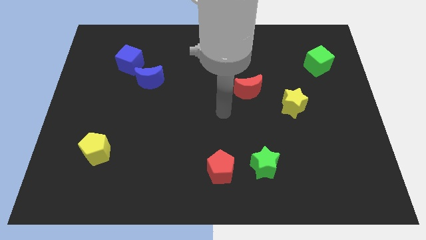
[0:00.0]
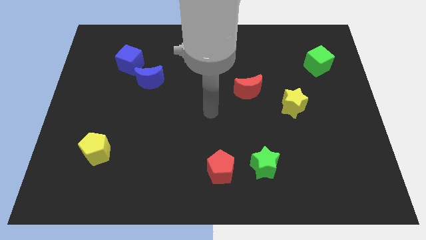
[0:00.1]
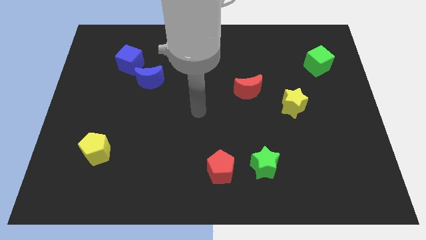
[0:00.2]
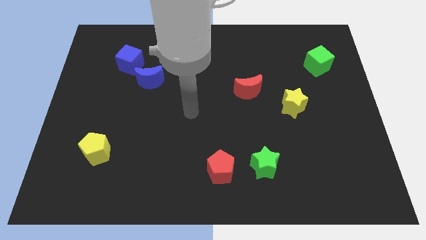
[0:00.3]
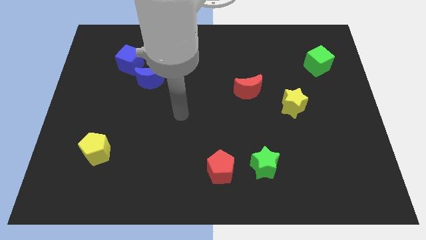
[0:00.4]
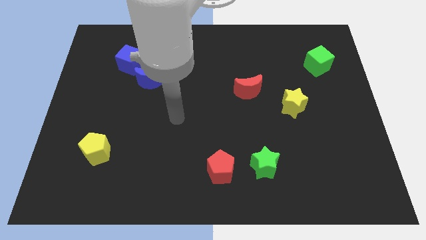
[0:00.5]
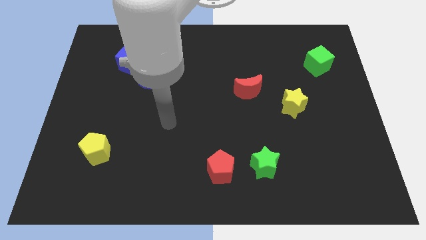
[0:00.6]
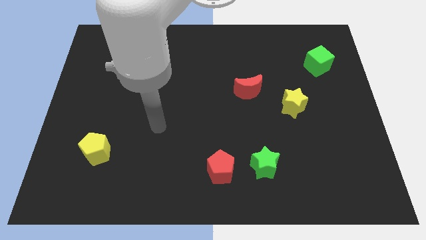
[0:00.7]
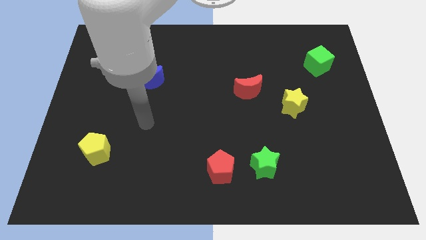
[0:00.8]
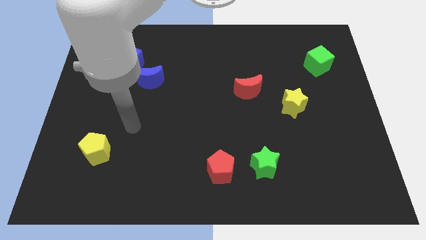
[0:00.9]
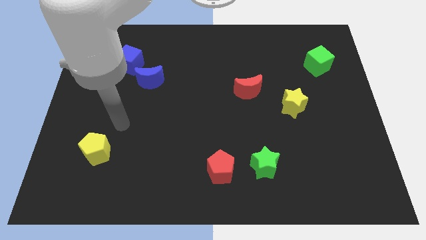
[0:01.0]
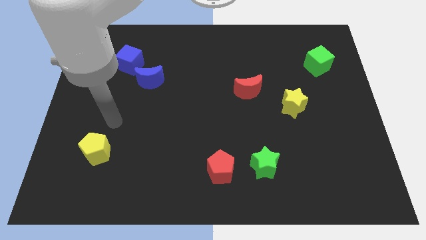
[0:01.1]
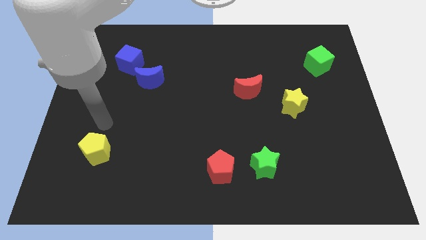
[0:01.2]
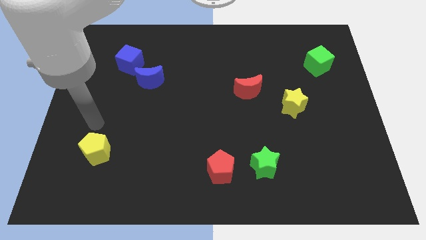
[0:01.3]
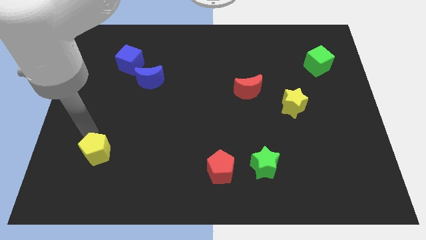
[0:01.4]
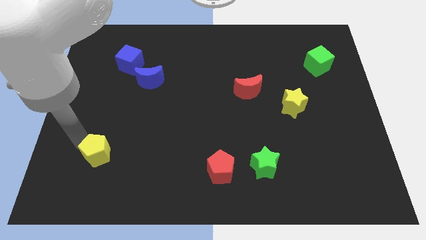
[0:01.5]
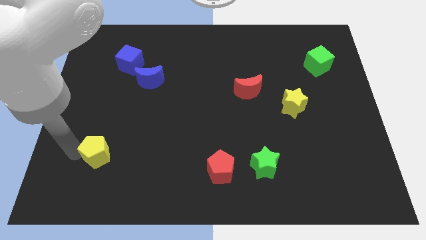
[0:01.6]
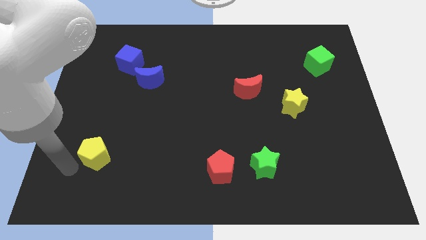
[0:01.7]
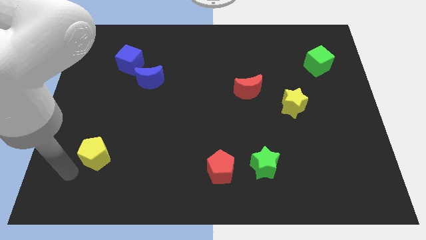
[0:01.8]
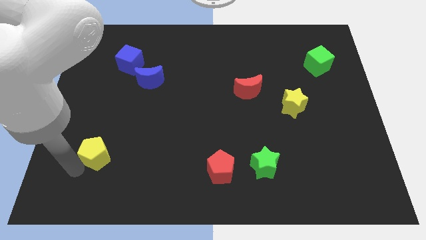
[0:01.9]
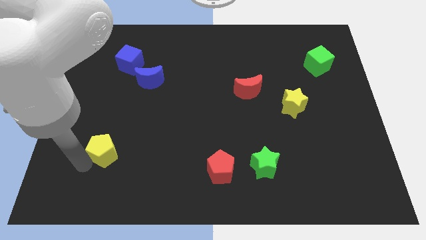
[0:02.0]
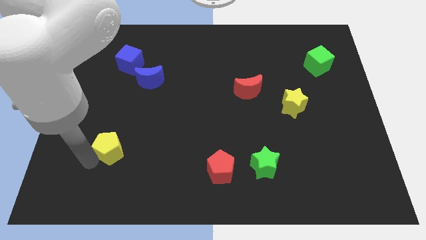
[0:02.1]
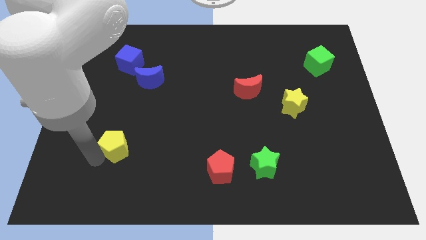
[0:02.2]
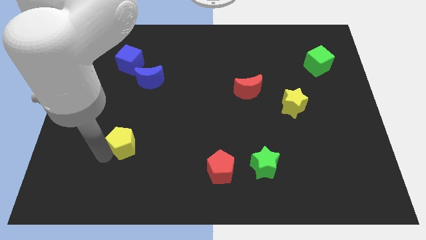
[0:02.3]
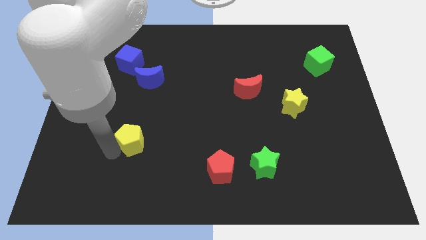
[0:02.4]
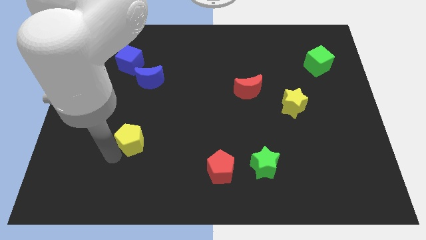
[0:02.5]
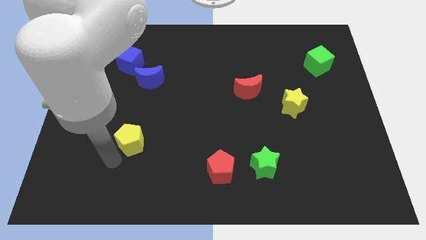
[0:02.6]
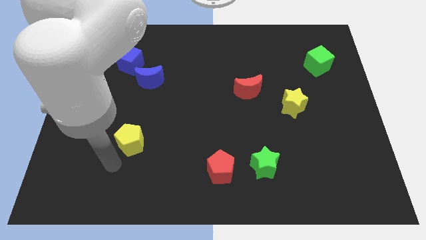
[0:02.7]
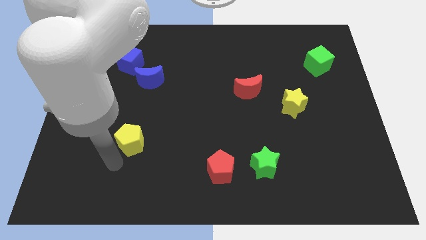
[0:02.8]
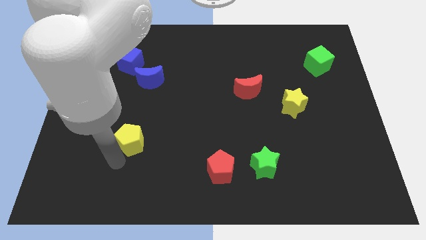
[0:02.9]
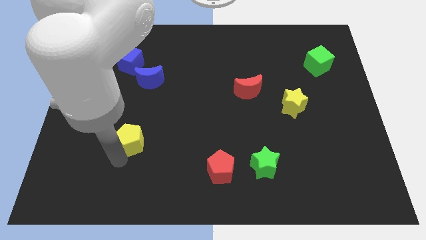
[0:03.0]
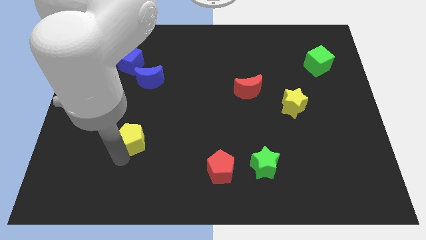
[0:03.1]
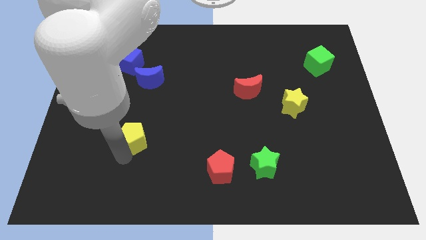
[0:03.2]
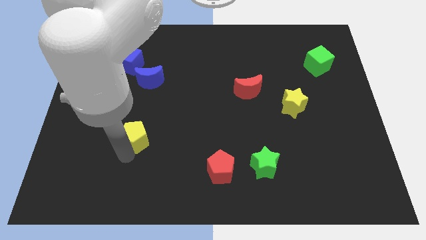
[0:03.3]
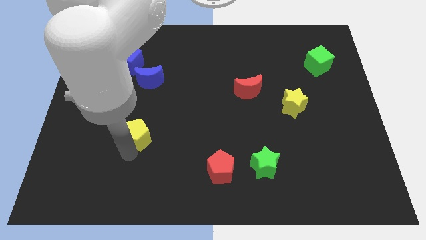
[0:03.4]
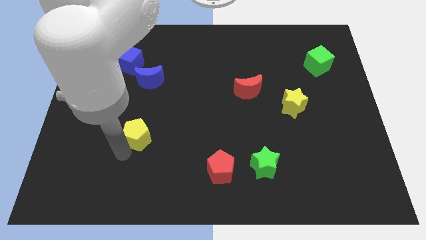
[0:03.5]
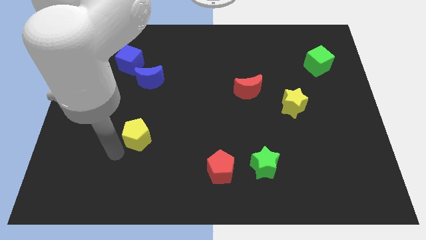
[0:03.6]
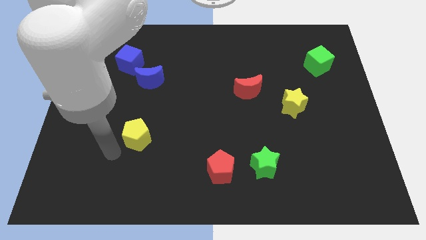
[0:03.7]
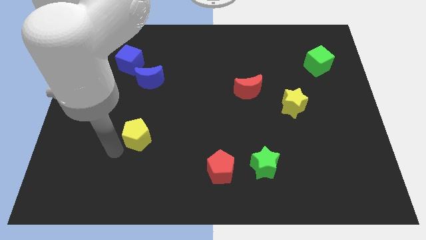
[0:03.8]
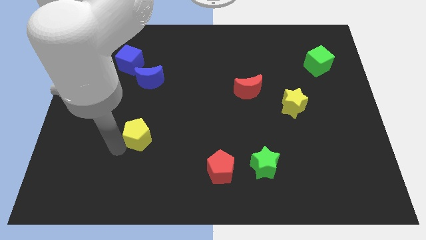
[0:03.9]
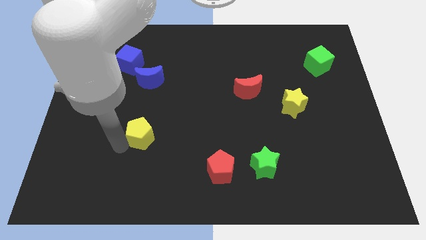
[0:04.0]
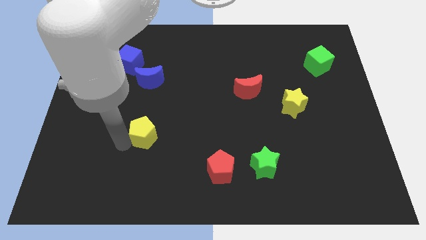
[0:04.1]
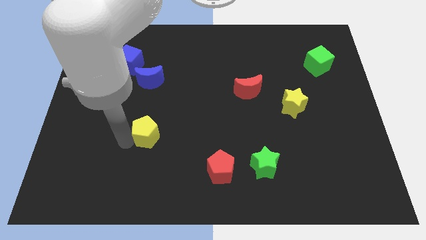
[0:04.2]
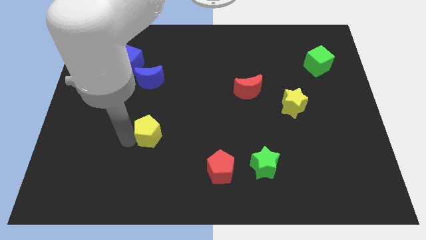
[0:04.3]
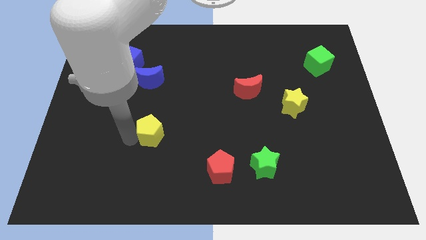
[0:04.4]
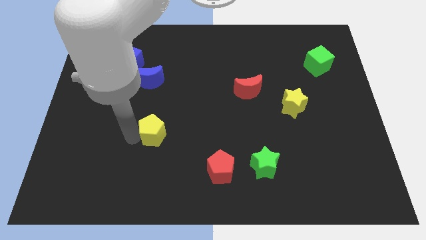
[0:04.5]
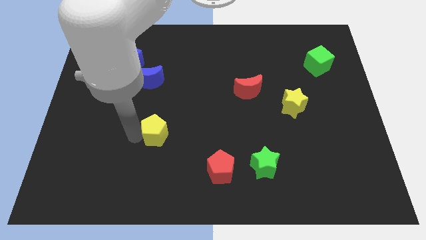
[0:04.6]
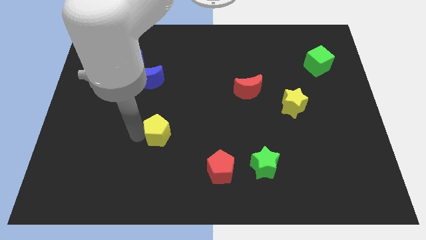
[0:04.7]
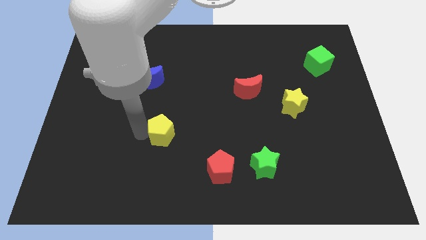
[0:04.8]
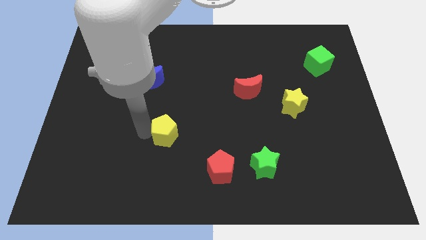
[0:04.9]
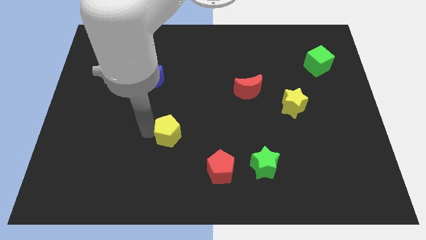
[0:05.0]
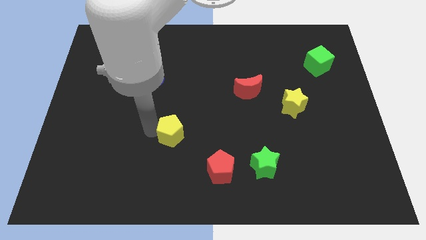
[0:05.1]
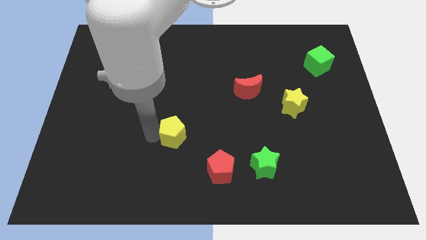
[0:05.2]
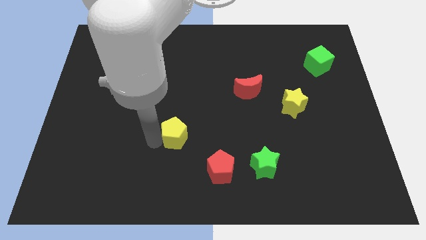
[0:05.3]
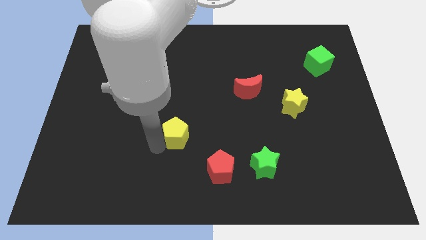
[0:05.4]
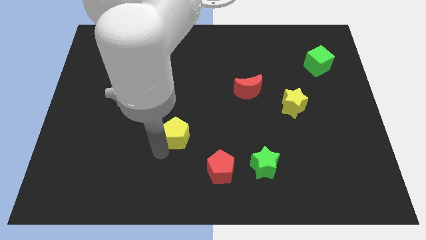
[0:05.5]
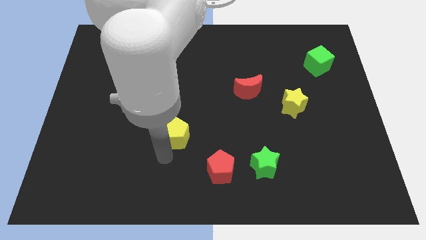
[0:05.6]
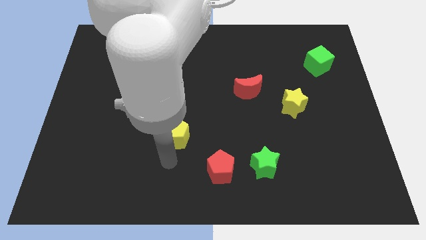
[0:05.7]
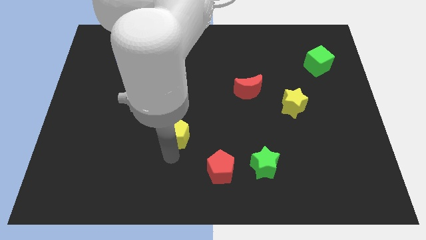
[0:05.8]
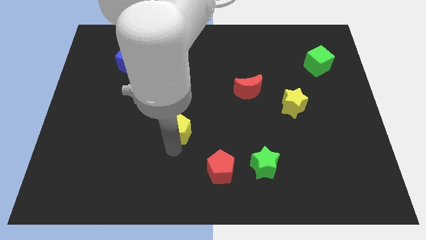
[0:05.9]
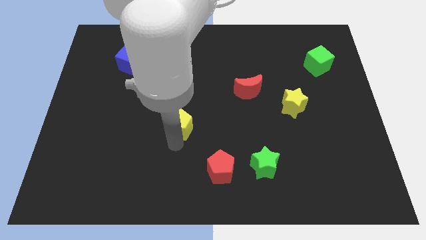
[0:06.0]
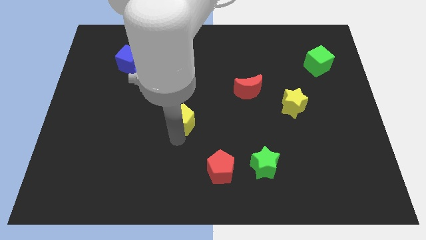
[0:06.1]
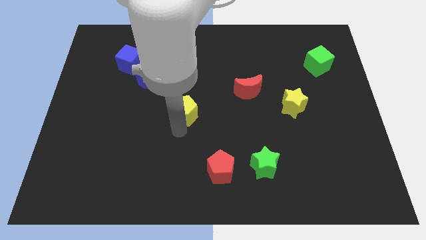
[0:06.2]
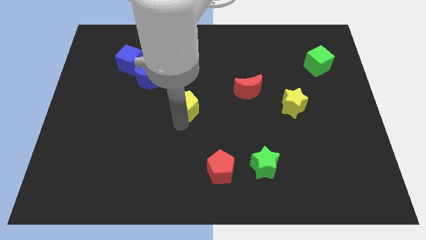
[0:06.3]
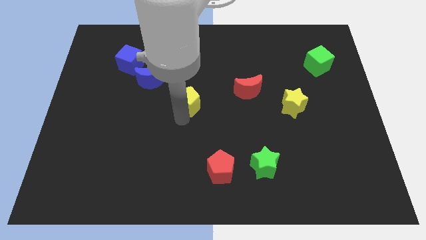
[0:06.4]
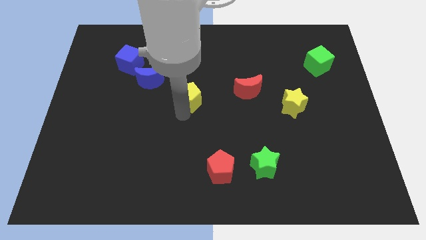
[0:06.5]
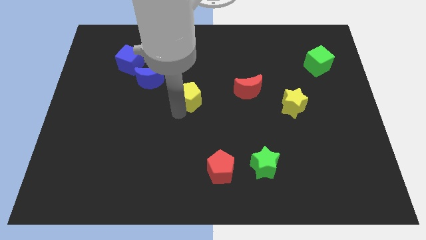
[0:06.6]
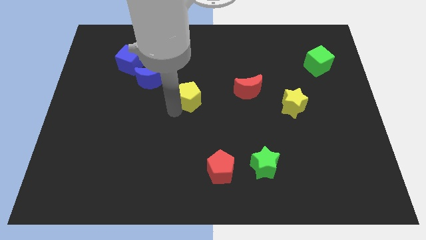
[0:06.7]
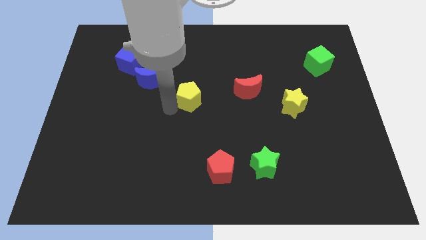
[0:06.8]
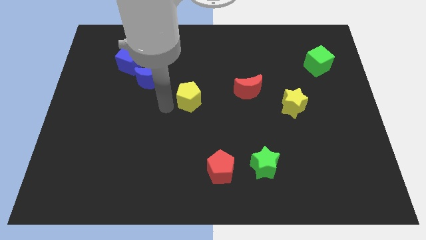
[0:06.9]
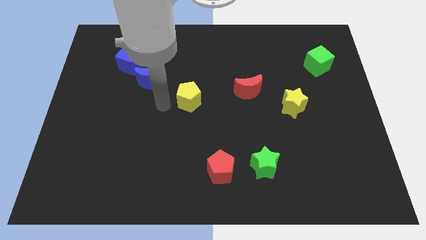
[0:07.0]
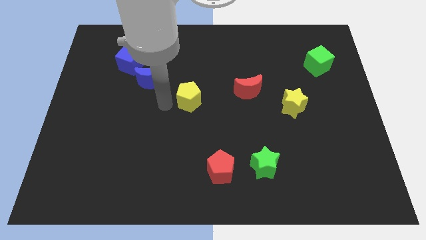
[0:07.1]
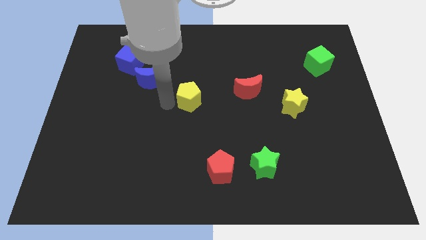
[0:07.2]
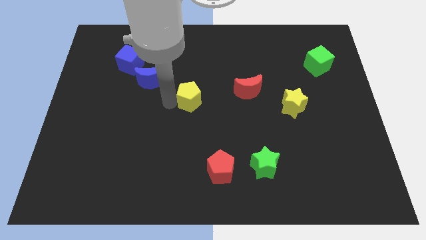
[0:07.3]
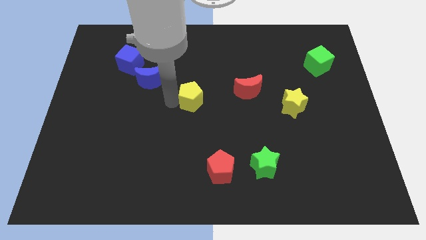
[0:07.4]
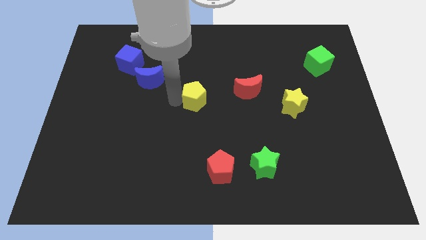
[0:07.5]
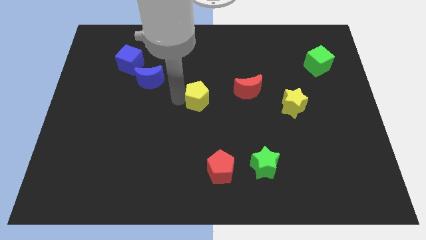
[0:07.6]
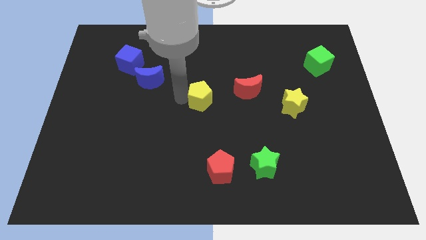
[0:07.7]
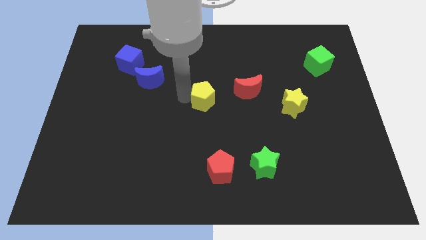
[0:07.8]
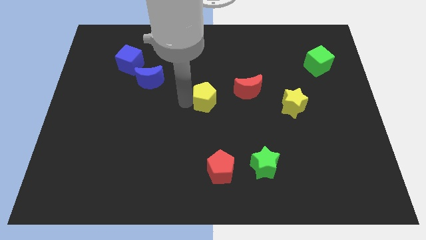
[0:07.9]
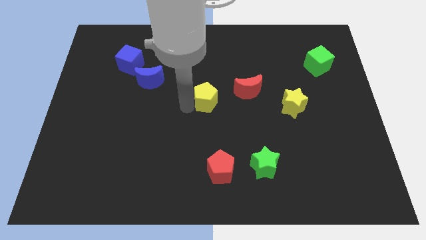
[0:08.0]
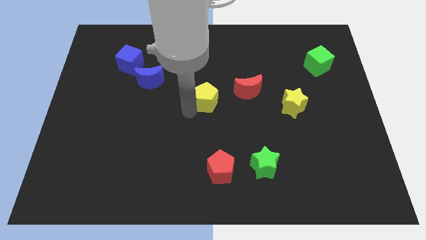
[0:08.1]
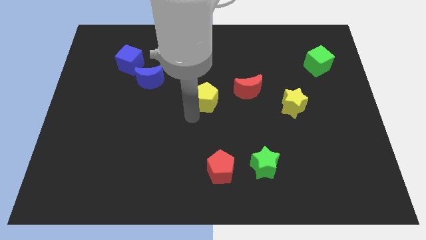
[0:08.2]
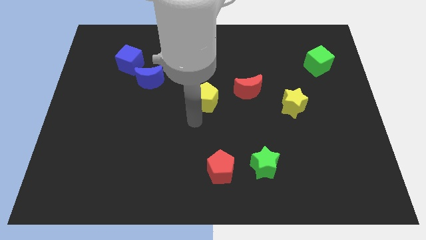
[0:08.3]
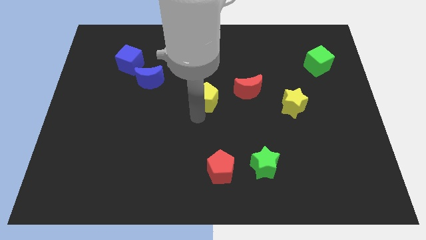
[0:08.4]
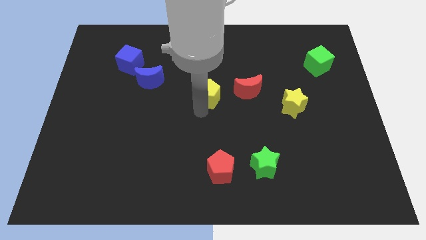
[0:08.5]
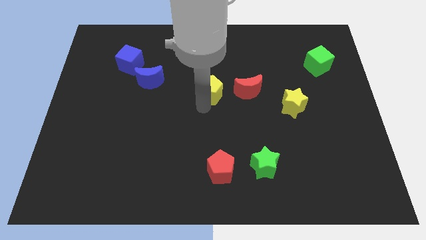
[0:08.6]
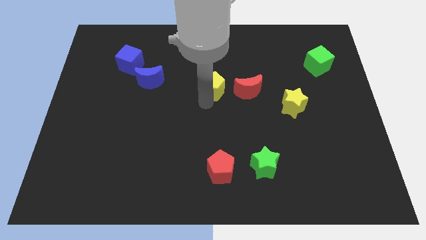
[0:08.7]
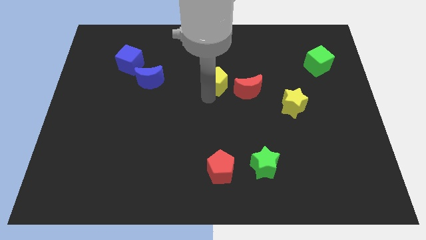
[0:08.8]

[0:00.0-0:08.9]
push the yellow pentagon to the top left of the red moon
